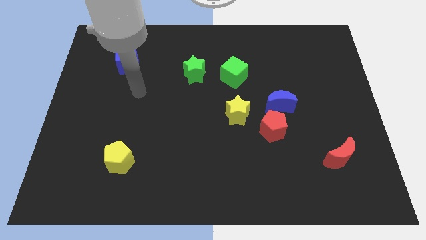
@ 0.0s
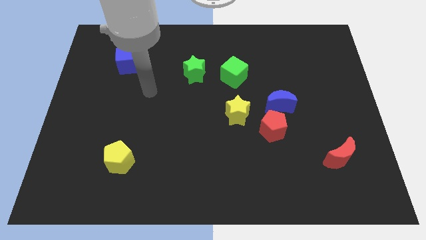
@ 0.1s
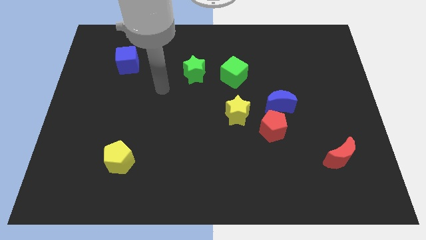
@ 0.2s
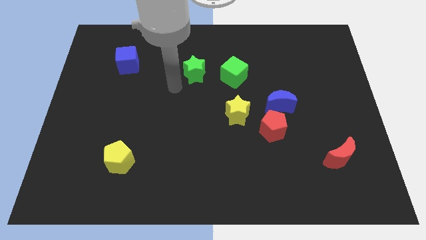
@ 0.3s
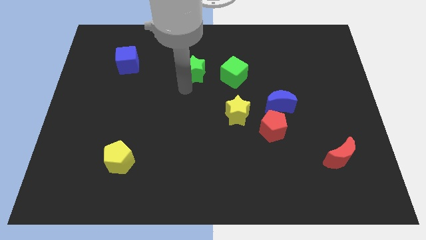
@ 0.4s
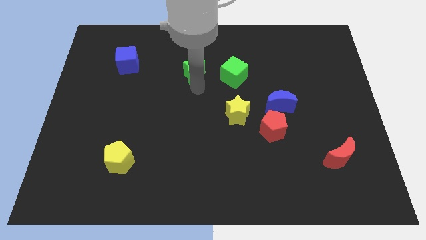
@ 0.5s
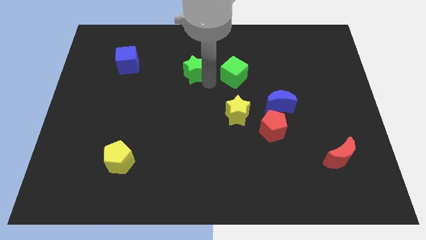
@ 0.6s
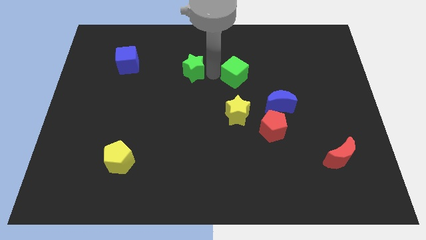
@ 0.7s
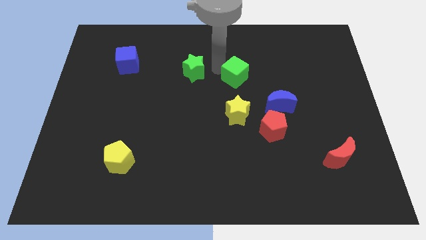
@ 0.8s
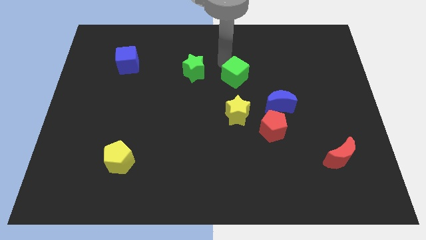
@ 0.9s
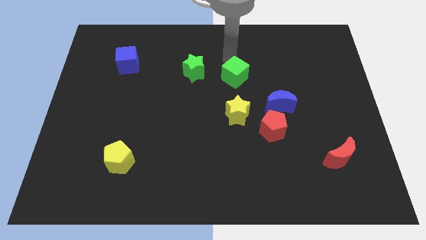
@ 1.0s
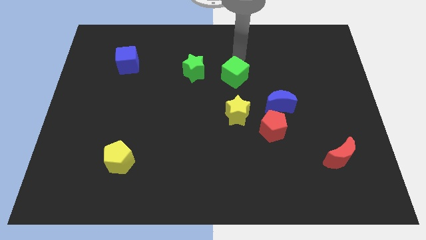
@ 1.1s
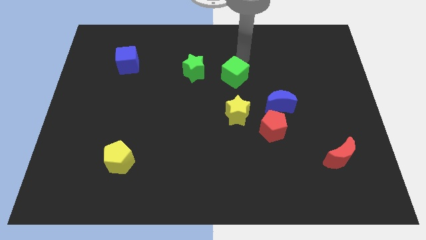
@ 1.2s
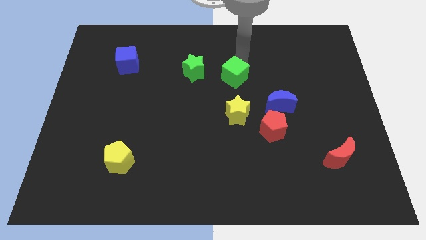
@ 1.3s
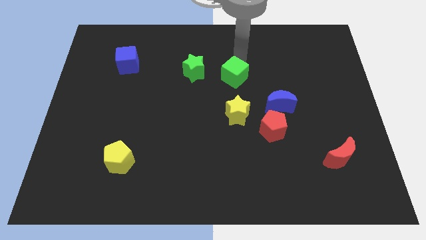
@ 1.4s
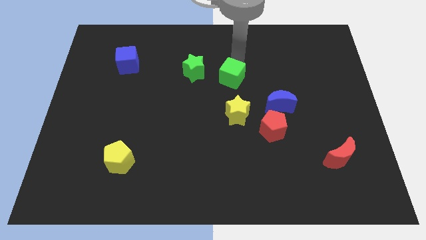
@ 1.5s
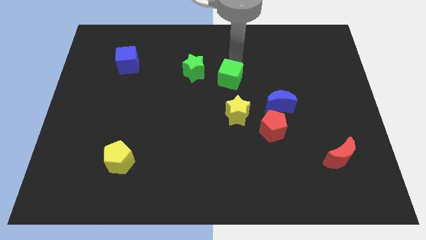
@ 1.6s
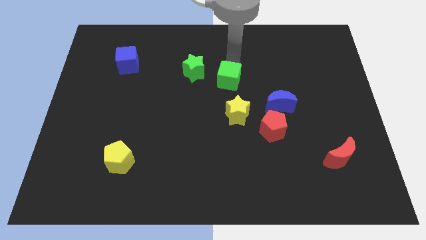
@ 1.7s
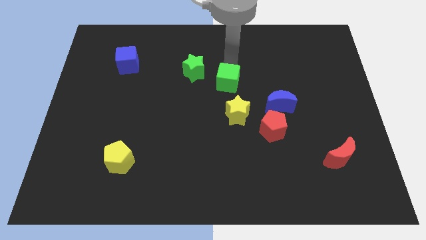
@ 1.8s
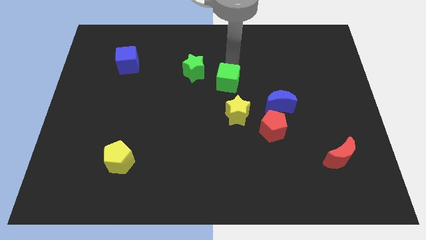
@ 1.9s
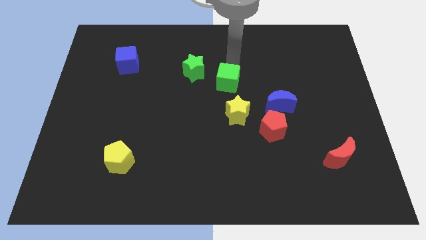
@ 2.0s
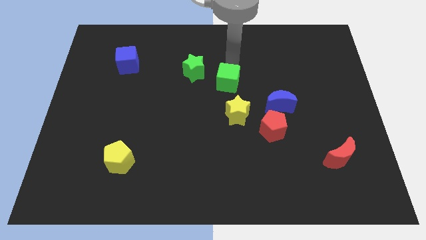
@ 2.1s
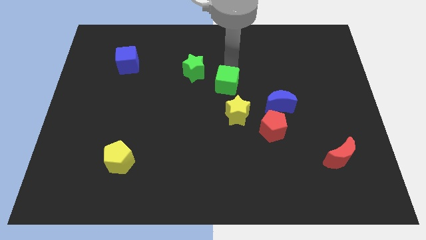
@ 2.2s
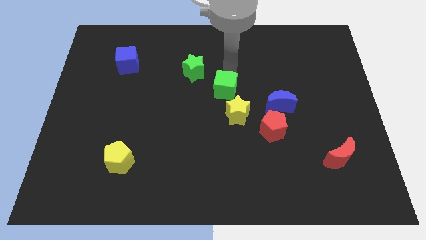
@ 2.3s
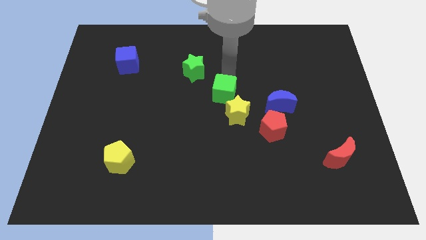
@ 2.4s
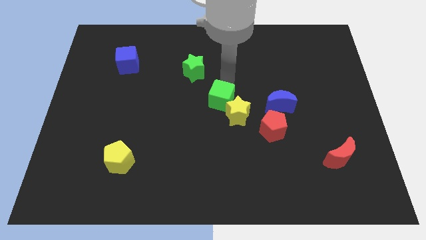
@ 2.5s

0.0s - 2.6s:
move the green cube slightly downwards

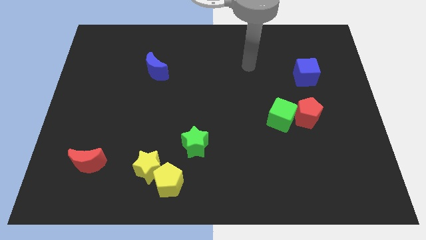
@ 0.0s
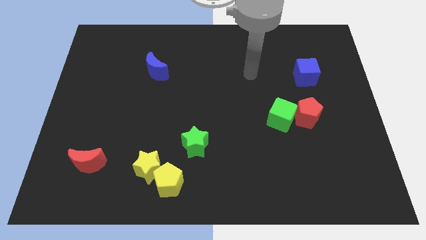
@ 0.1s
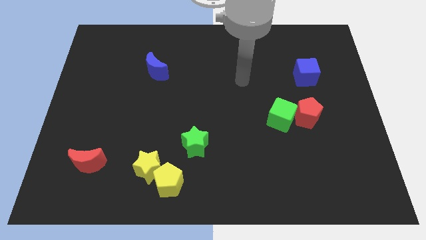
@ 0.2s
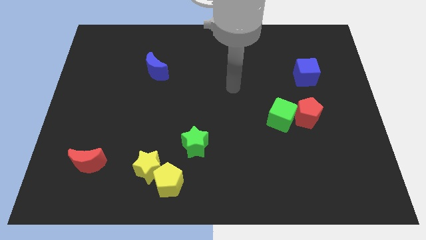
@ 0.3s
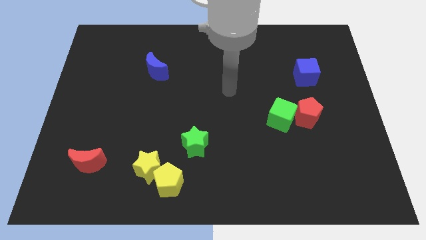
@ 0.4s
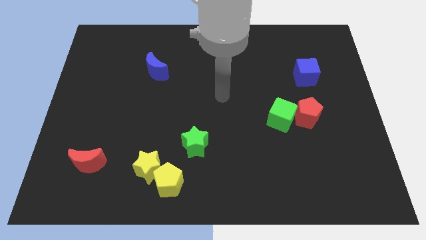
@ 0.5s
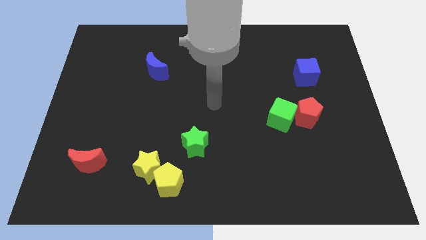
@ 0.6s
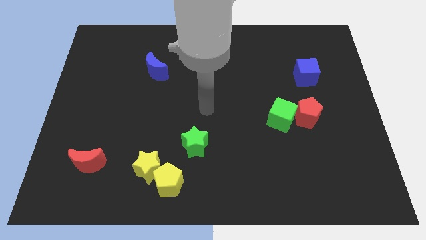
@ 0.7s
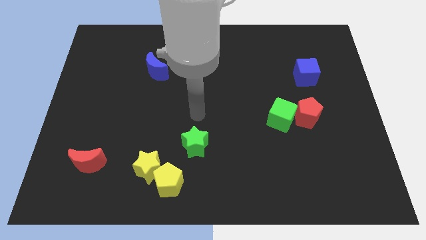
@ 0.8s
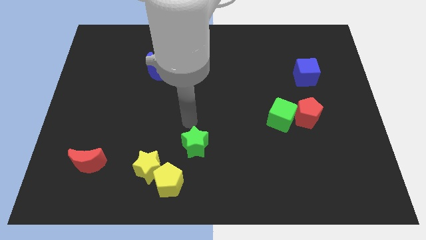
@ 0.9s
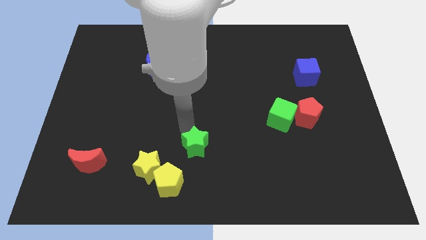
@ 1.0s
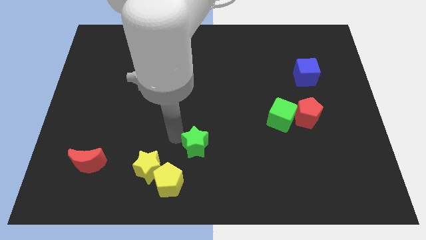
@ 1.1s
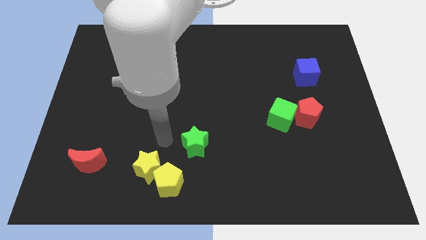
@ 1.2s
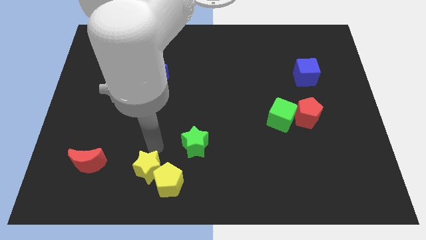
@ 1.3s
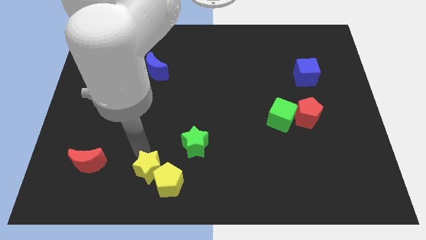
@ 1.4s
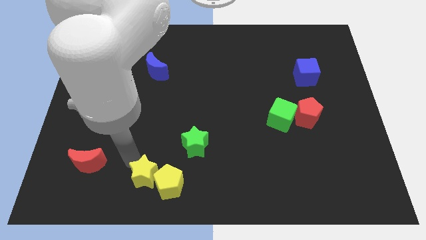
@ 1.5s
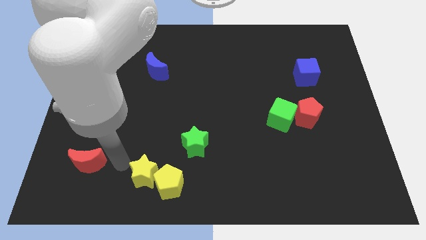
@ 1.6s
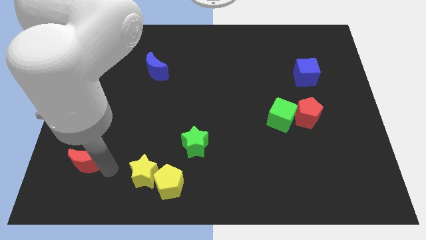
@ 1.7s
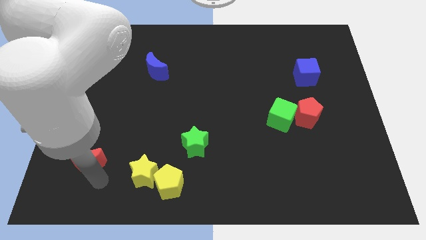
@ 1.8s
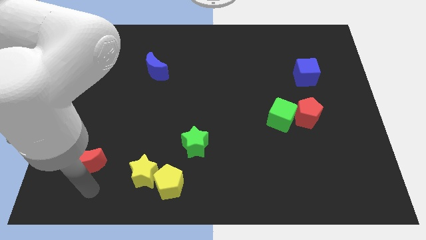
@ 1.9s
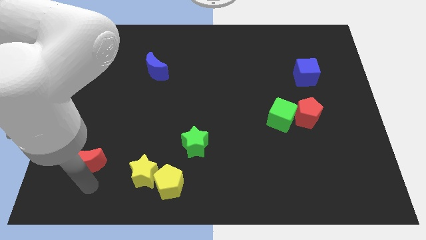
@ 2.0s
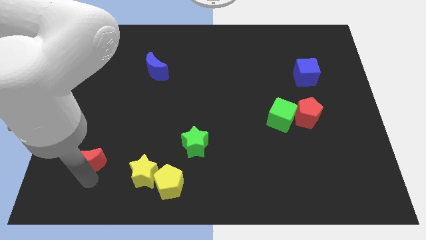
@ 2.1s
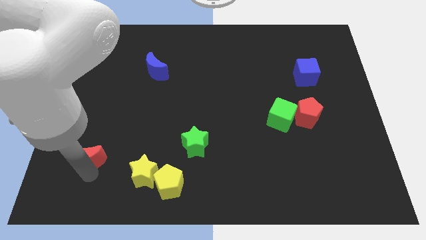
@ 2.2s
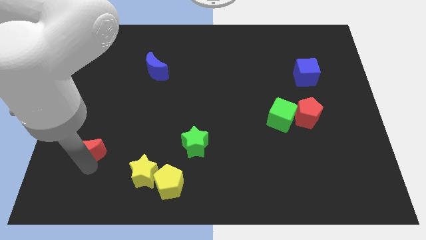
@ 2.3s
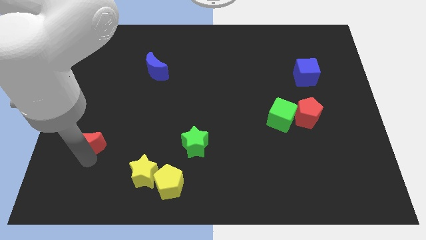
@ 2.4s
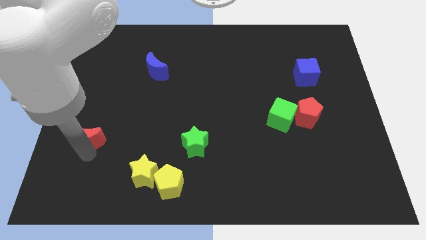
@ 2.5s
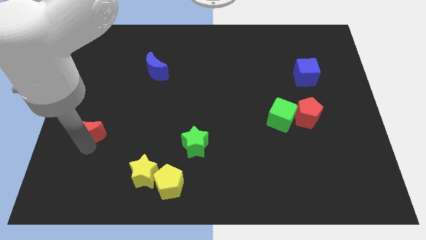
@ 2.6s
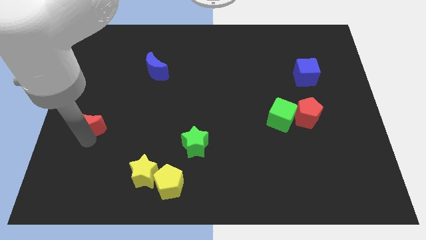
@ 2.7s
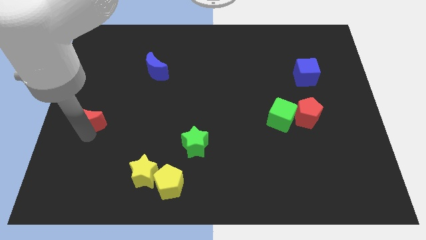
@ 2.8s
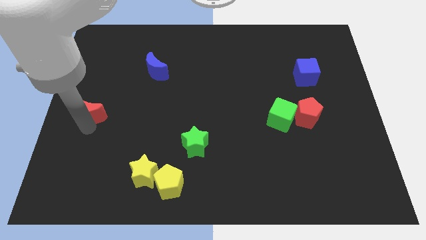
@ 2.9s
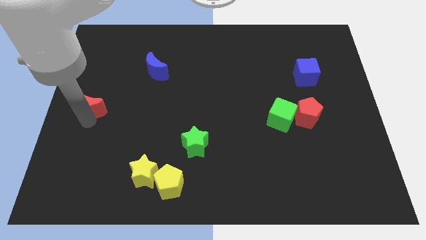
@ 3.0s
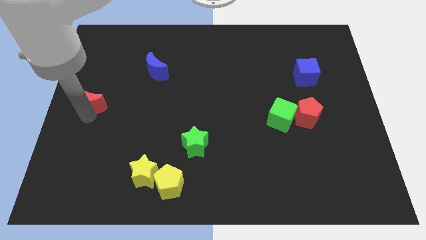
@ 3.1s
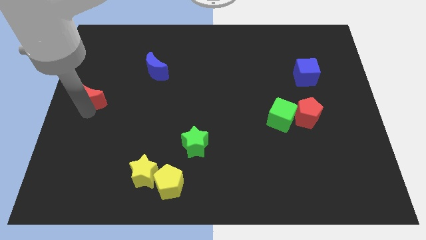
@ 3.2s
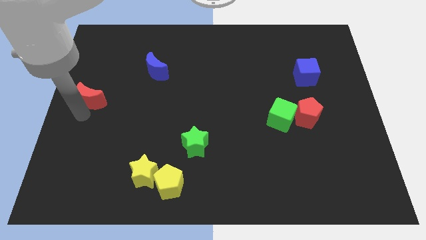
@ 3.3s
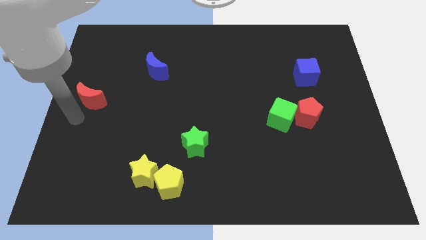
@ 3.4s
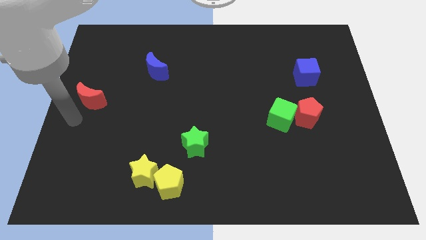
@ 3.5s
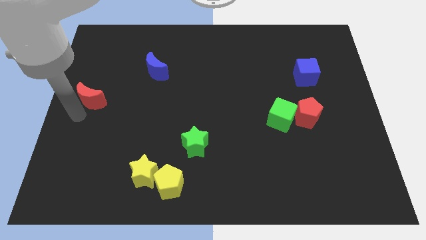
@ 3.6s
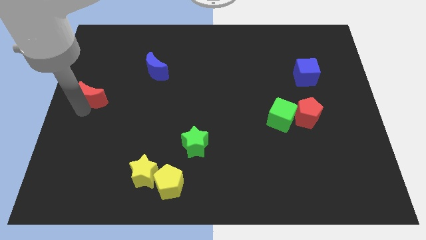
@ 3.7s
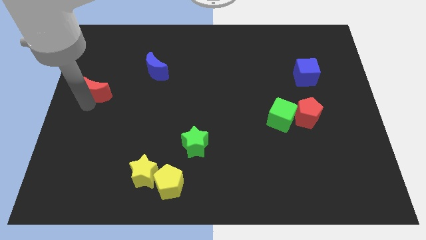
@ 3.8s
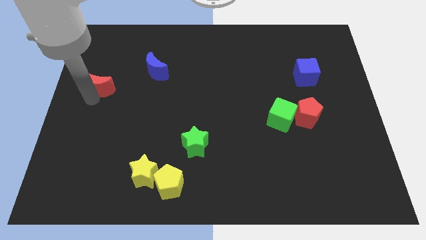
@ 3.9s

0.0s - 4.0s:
move the red moon upwards

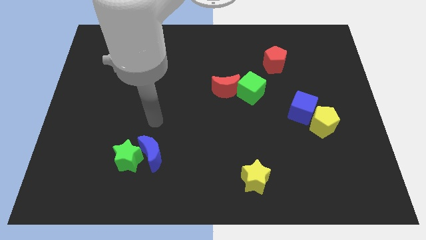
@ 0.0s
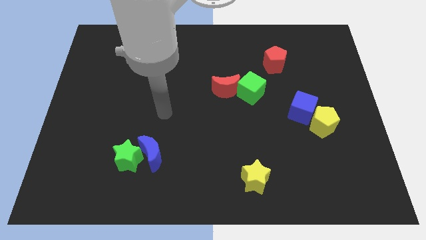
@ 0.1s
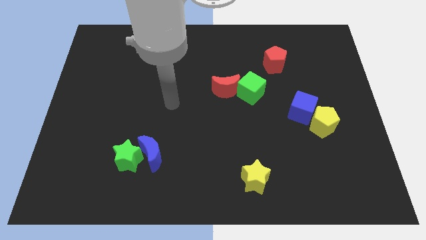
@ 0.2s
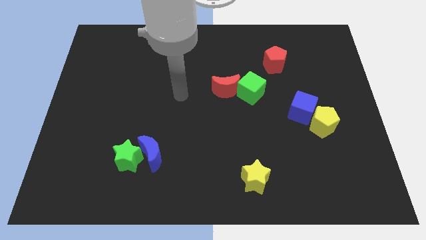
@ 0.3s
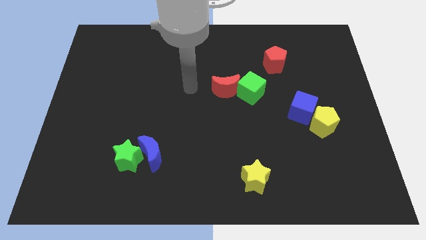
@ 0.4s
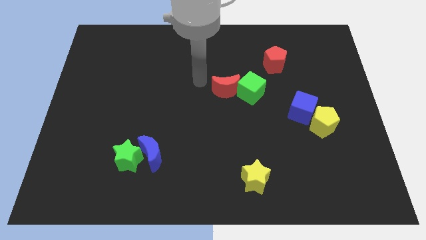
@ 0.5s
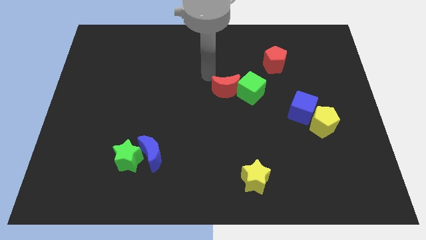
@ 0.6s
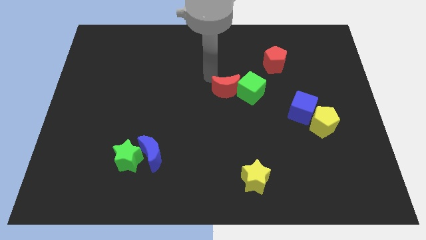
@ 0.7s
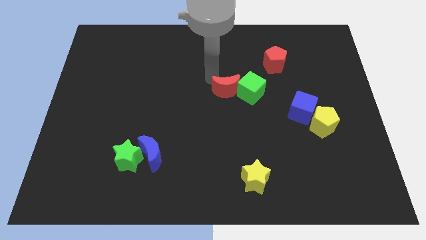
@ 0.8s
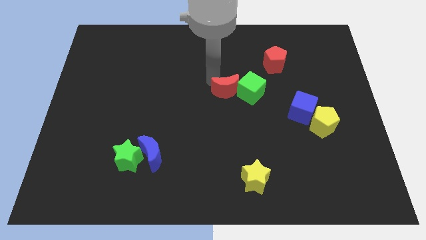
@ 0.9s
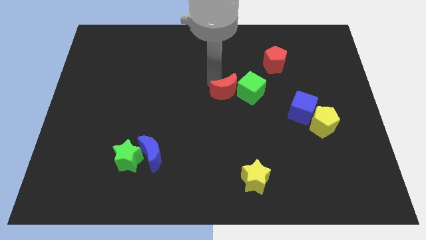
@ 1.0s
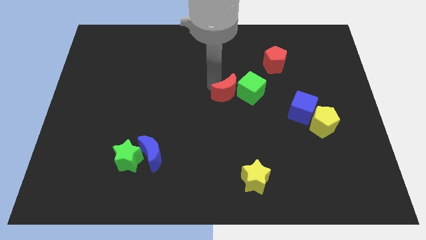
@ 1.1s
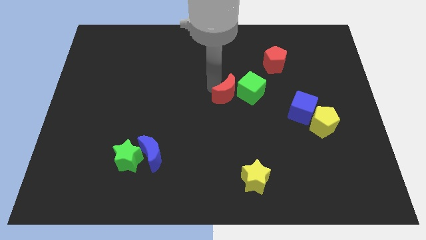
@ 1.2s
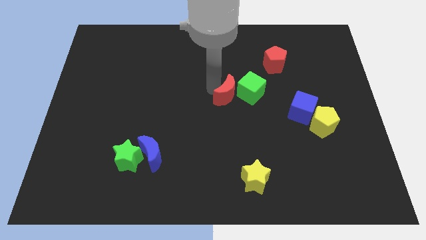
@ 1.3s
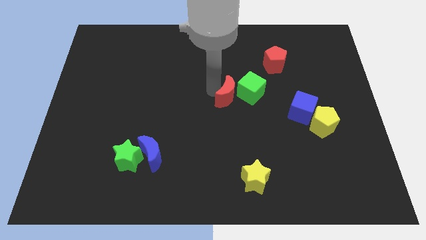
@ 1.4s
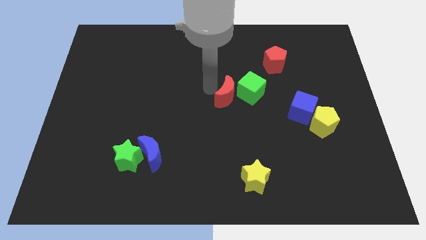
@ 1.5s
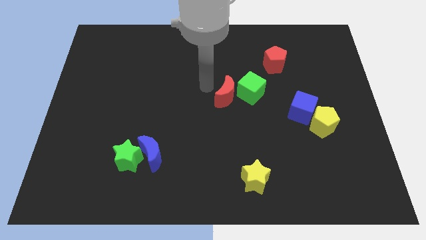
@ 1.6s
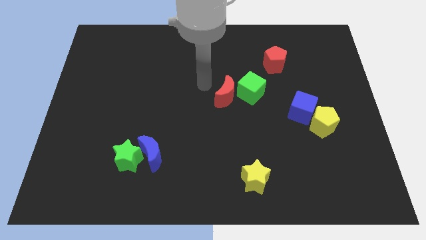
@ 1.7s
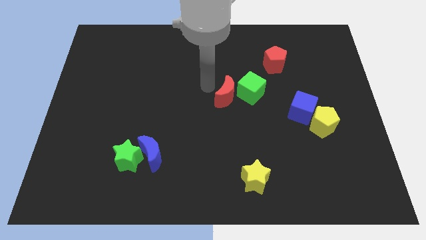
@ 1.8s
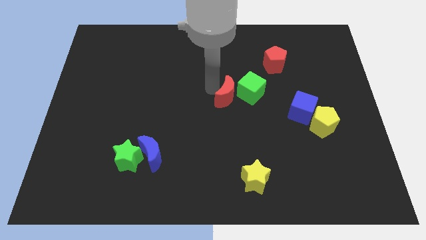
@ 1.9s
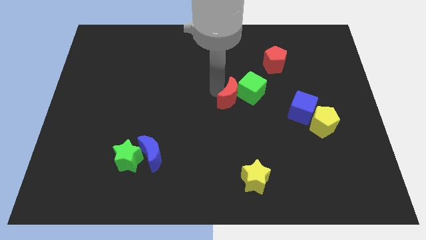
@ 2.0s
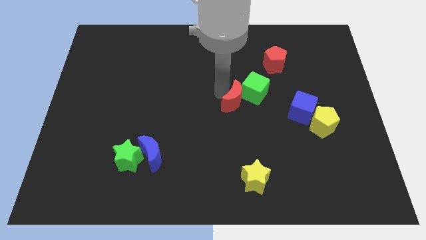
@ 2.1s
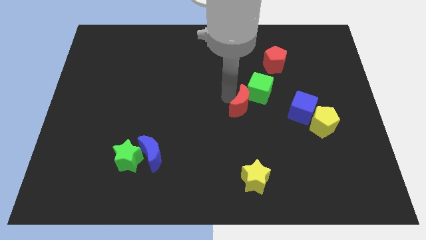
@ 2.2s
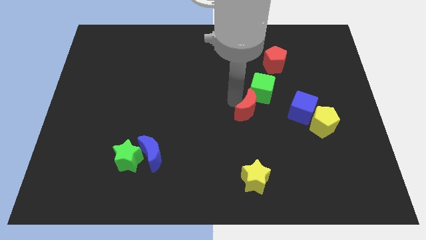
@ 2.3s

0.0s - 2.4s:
slide the red moon a little bit down and to the right
